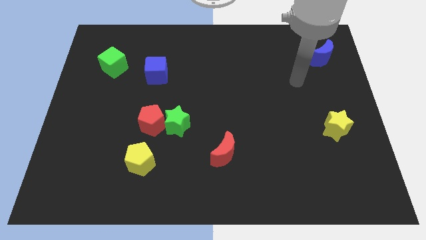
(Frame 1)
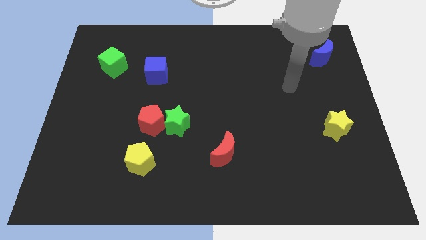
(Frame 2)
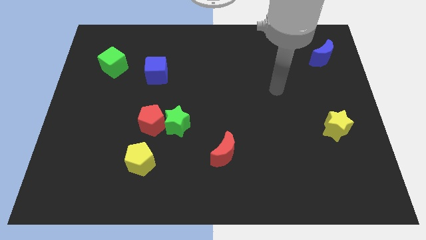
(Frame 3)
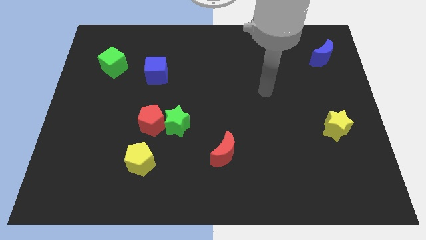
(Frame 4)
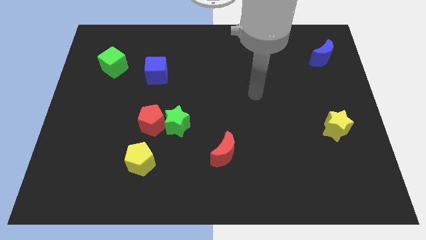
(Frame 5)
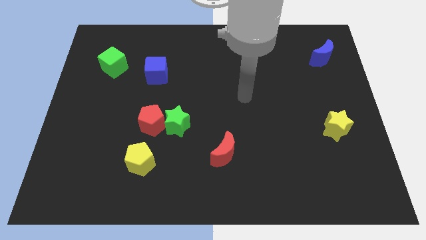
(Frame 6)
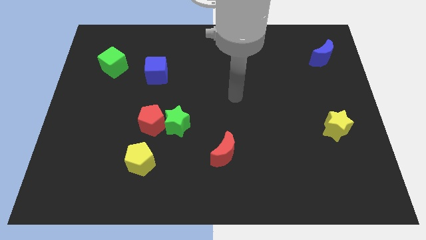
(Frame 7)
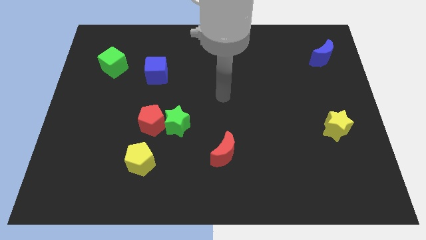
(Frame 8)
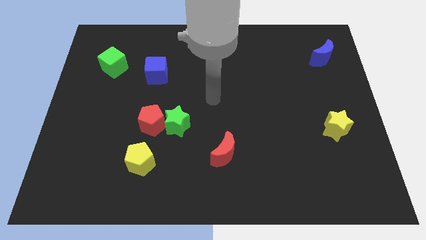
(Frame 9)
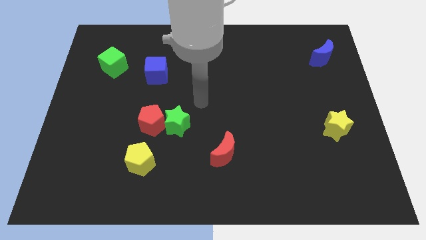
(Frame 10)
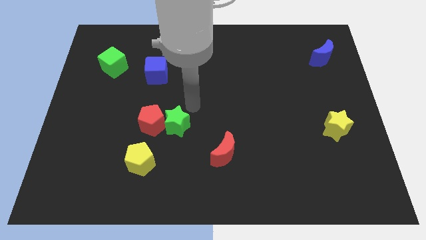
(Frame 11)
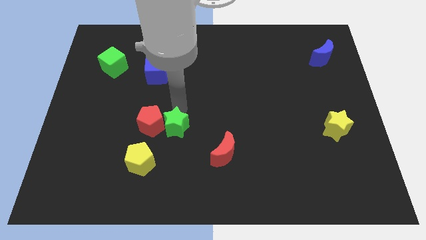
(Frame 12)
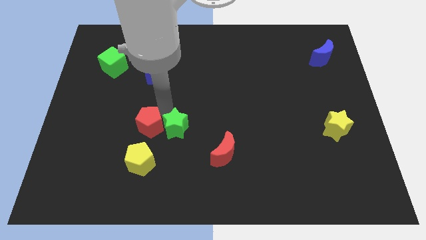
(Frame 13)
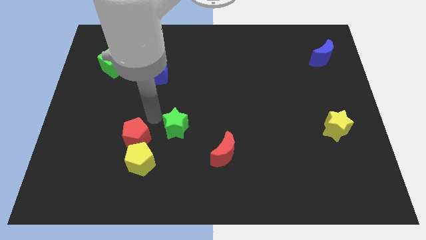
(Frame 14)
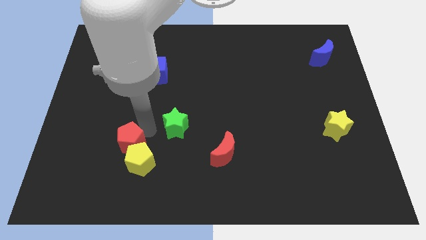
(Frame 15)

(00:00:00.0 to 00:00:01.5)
separate the green star from the red pentagon

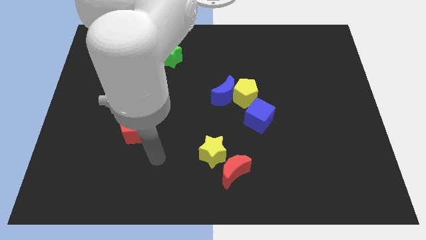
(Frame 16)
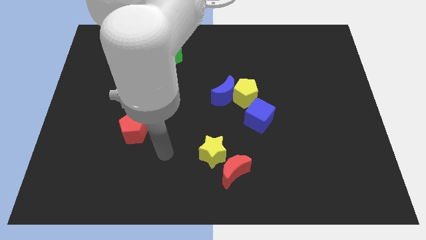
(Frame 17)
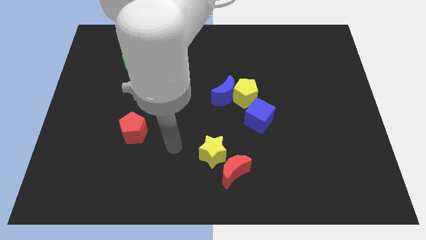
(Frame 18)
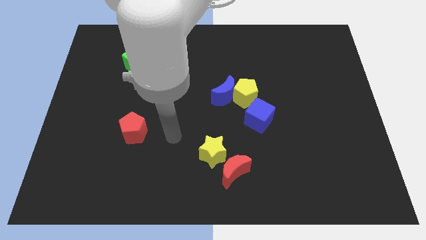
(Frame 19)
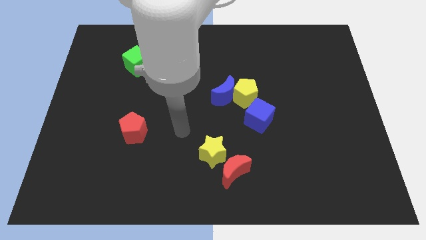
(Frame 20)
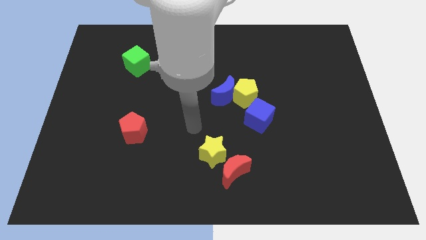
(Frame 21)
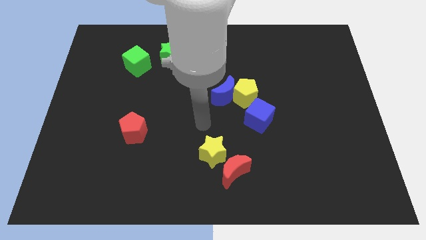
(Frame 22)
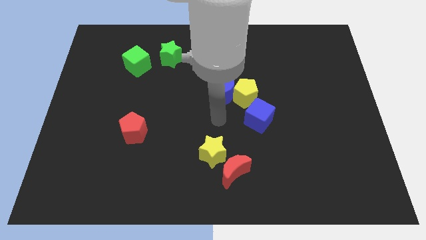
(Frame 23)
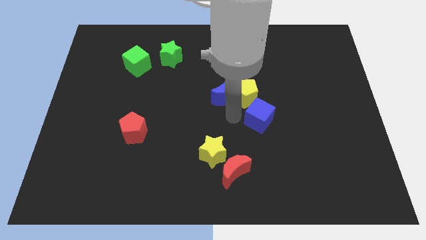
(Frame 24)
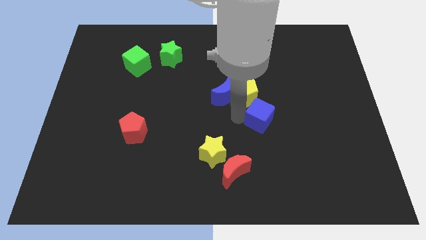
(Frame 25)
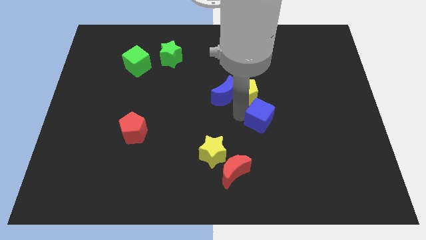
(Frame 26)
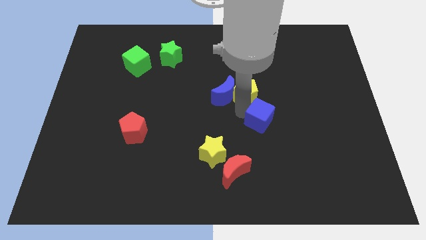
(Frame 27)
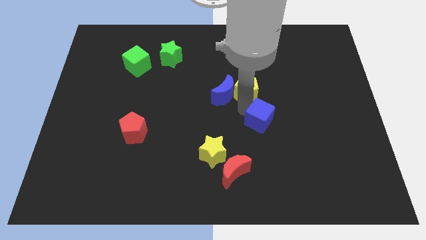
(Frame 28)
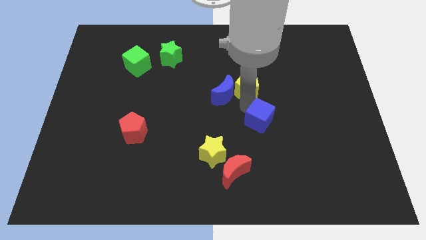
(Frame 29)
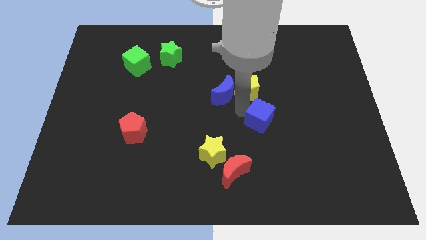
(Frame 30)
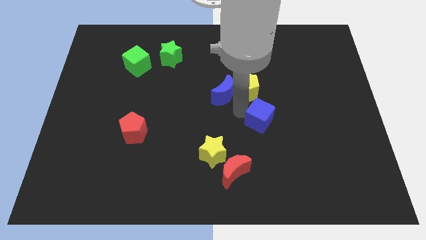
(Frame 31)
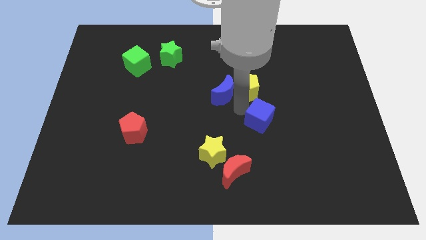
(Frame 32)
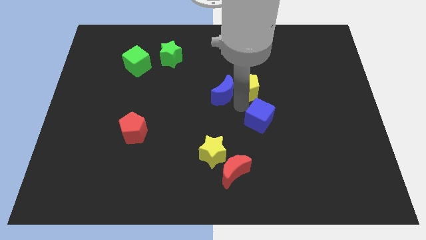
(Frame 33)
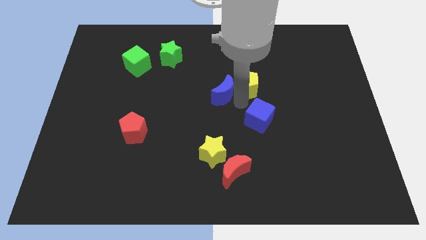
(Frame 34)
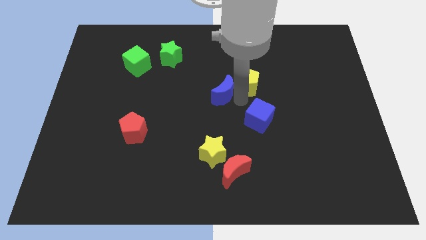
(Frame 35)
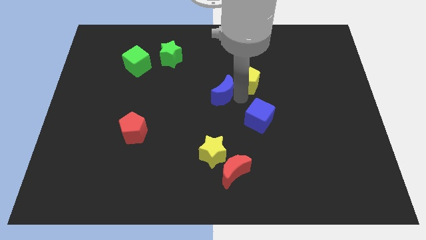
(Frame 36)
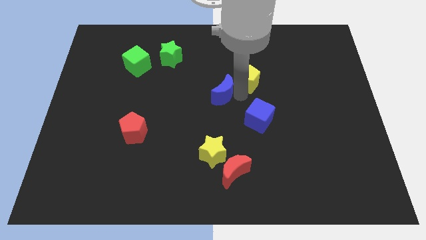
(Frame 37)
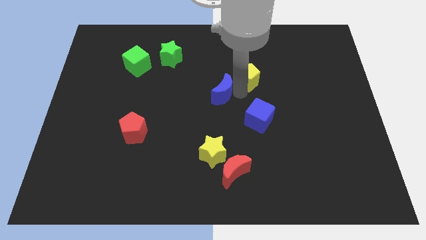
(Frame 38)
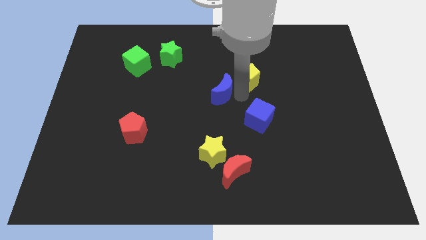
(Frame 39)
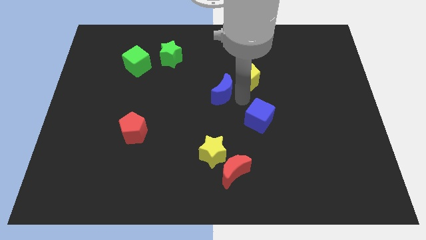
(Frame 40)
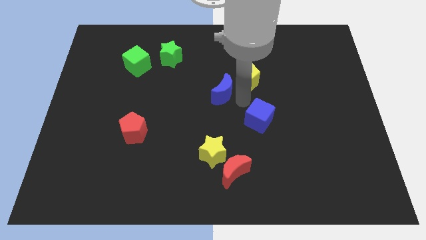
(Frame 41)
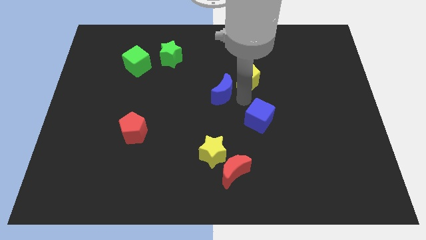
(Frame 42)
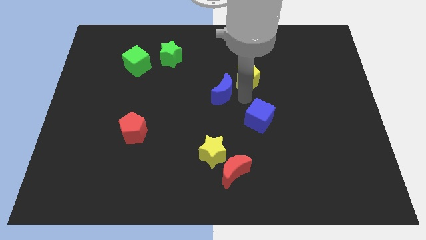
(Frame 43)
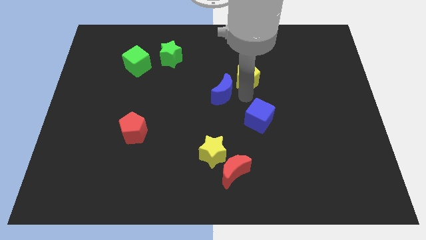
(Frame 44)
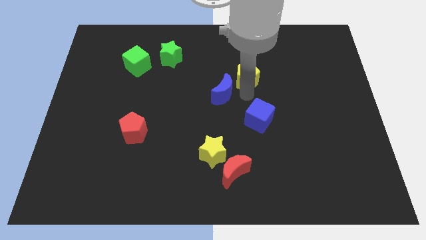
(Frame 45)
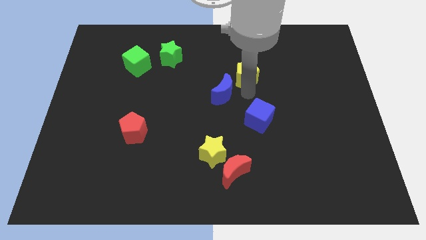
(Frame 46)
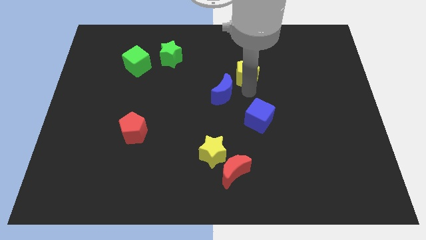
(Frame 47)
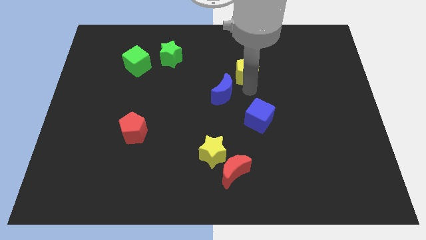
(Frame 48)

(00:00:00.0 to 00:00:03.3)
separate the yellow pentagon from the blue moon and blue cube

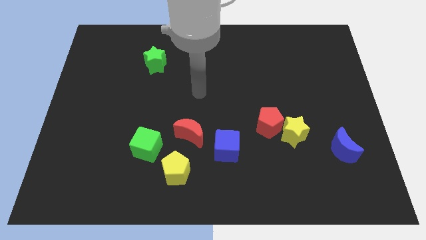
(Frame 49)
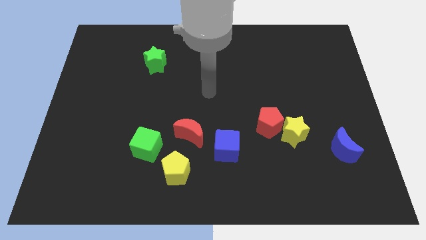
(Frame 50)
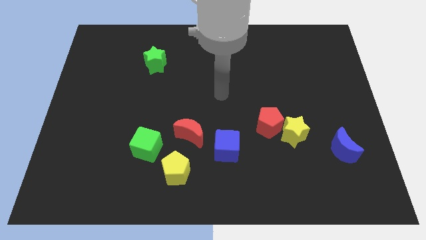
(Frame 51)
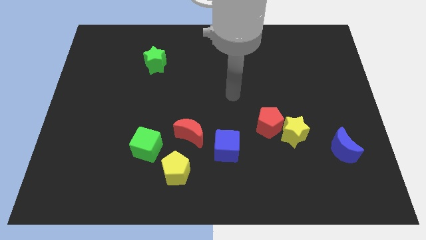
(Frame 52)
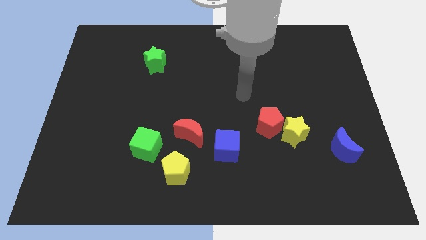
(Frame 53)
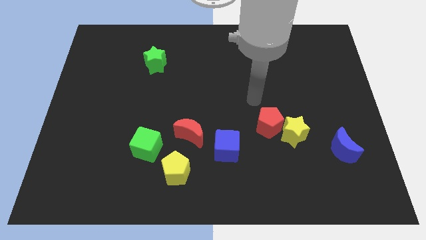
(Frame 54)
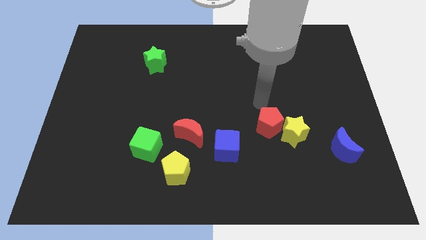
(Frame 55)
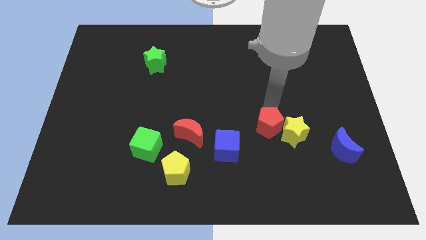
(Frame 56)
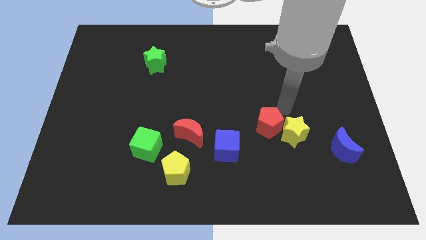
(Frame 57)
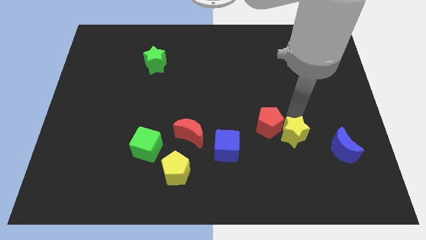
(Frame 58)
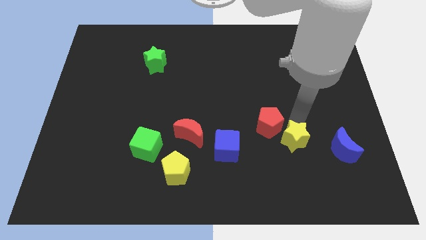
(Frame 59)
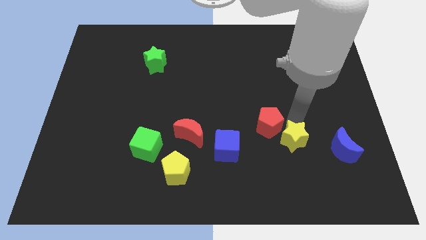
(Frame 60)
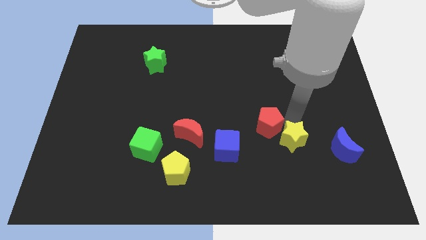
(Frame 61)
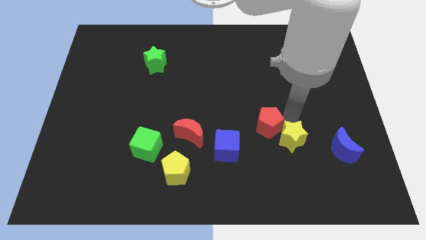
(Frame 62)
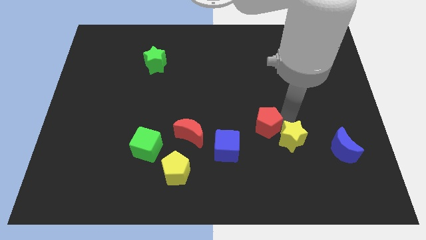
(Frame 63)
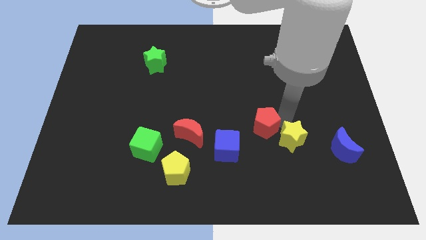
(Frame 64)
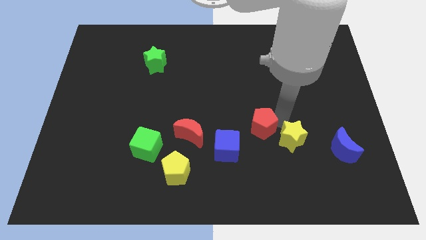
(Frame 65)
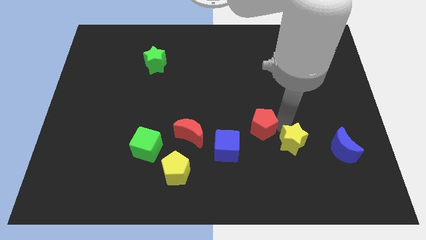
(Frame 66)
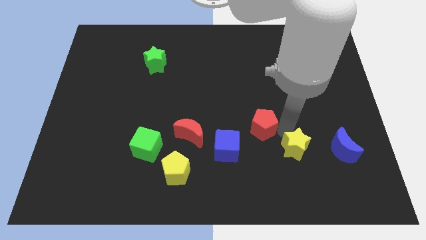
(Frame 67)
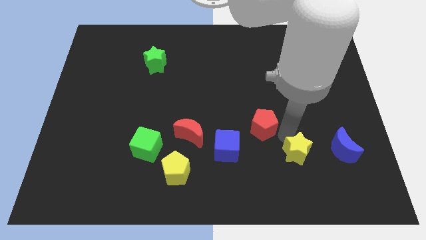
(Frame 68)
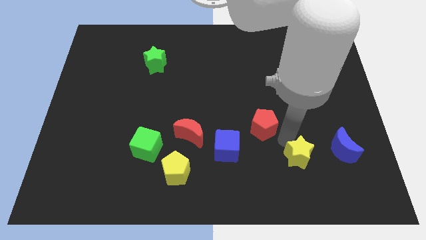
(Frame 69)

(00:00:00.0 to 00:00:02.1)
move the red pentagon away from the yellow star

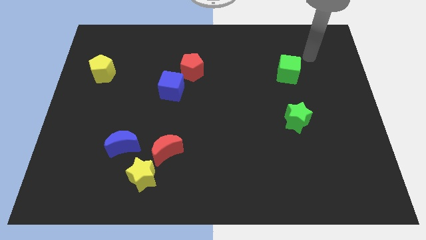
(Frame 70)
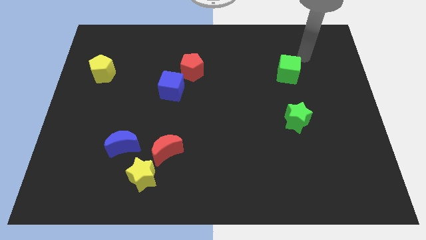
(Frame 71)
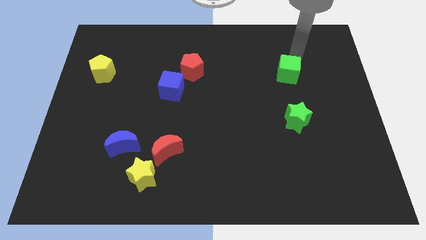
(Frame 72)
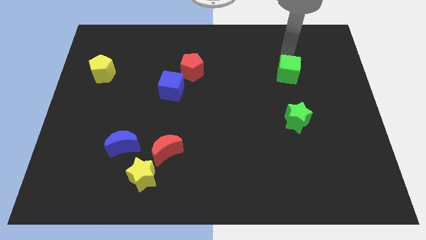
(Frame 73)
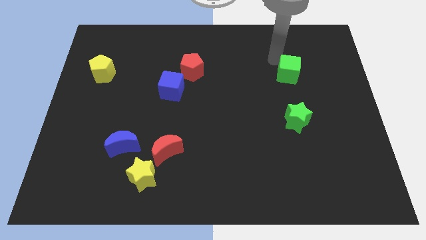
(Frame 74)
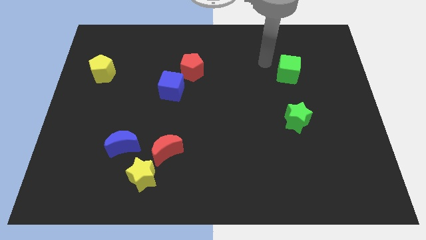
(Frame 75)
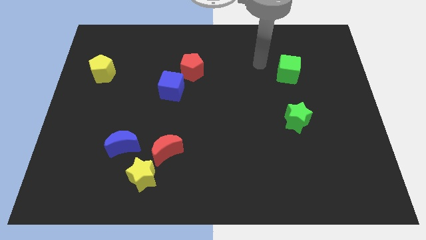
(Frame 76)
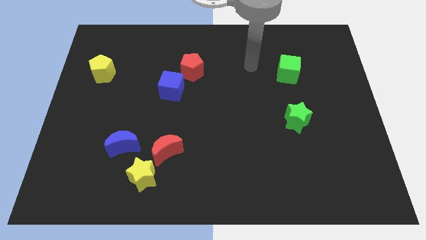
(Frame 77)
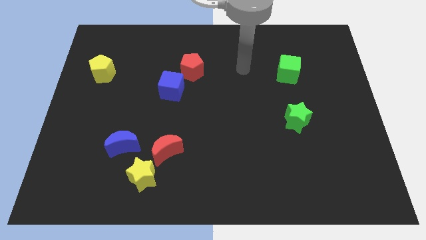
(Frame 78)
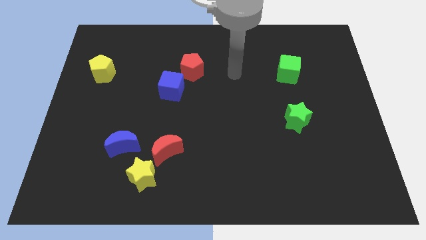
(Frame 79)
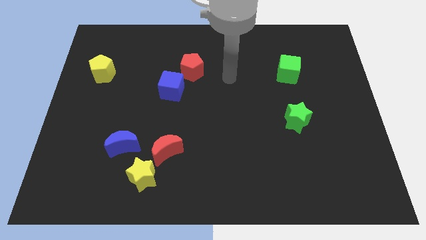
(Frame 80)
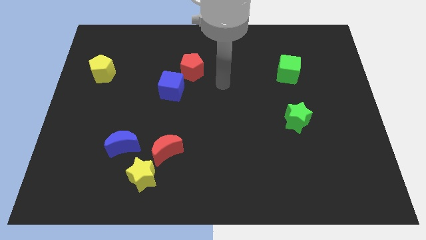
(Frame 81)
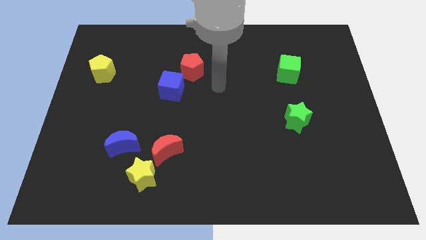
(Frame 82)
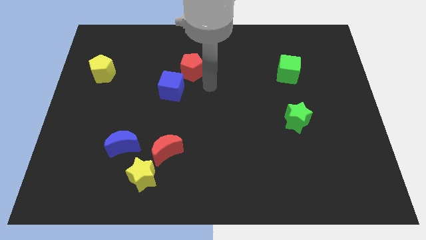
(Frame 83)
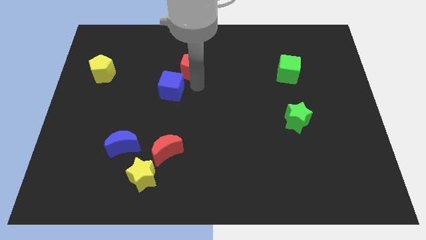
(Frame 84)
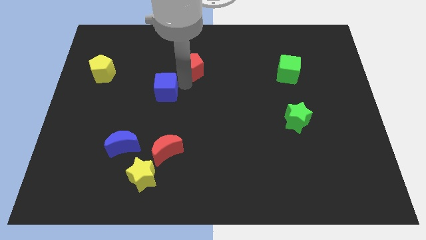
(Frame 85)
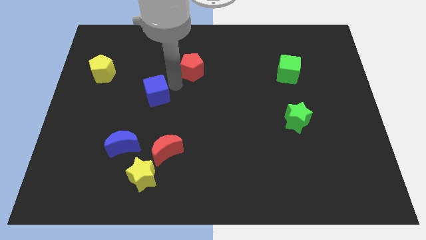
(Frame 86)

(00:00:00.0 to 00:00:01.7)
move the red pentagon away from the blue cube

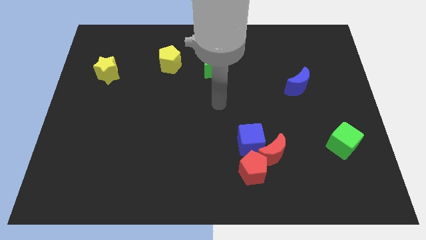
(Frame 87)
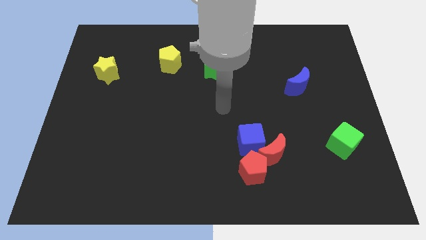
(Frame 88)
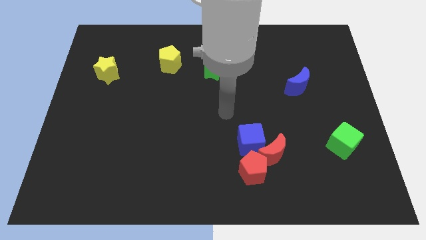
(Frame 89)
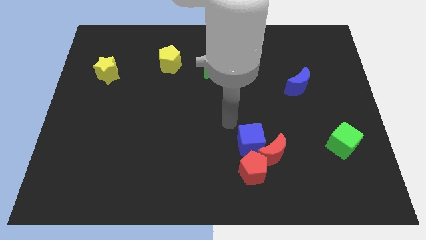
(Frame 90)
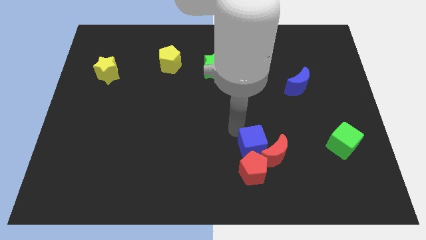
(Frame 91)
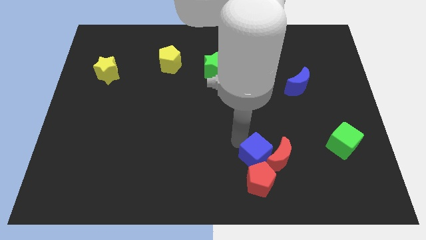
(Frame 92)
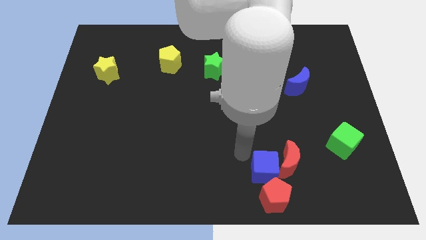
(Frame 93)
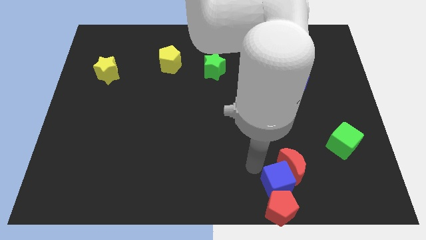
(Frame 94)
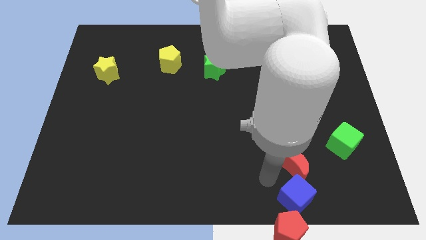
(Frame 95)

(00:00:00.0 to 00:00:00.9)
move the red moon away from the blue cube and red pentagon

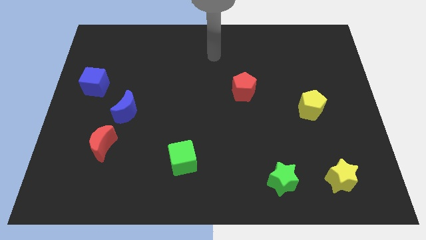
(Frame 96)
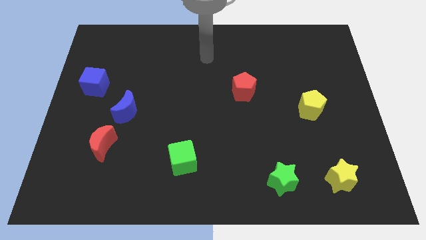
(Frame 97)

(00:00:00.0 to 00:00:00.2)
pull the red moon apart from the blue moon
